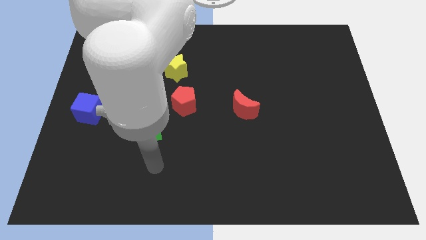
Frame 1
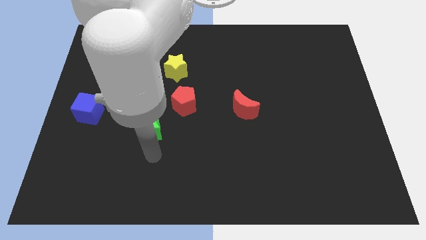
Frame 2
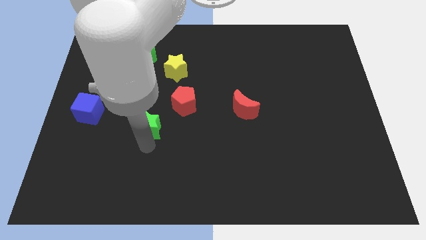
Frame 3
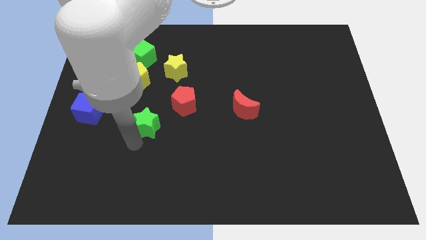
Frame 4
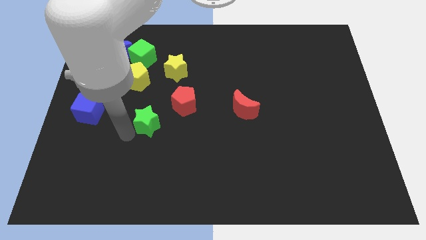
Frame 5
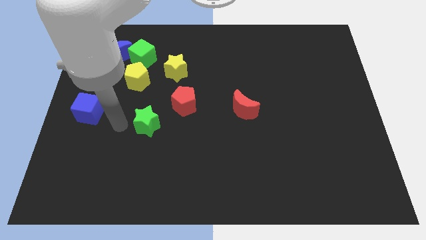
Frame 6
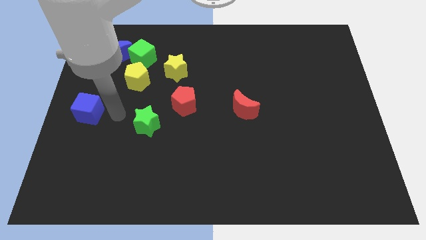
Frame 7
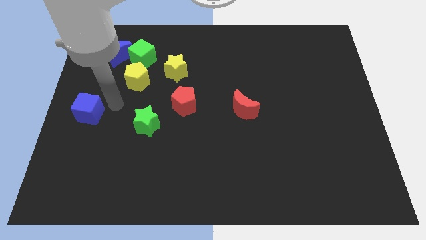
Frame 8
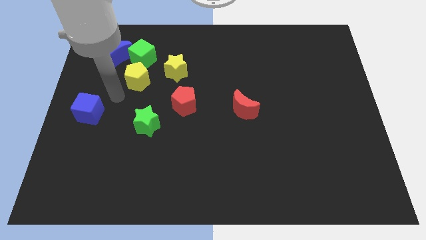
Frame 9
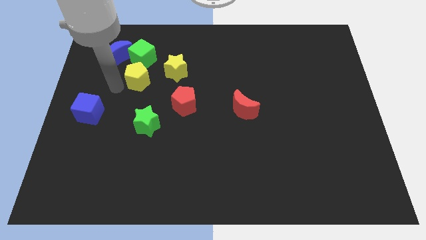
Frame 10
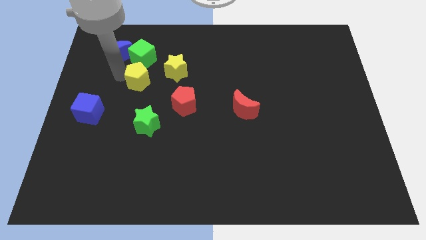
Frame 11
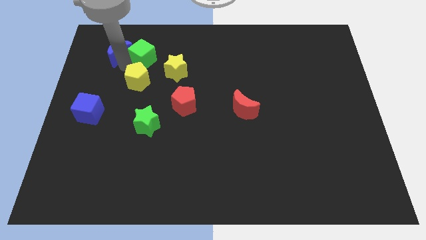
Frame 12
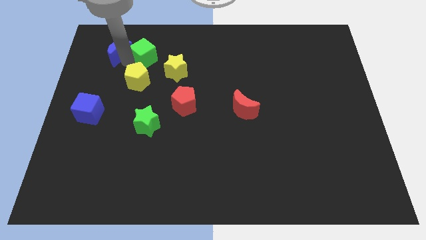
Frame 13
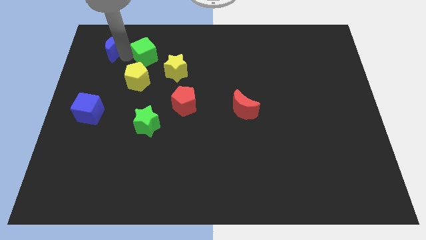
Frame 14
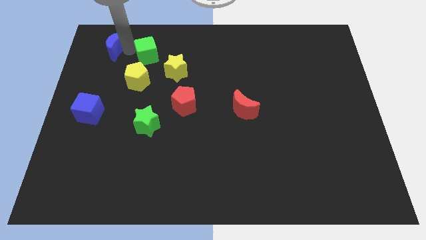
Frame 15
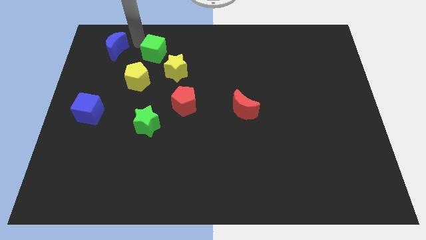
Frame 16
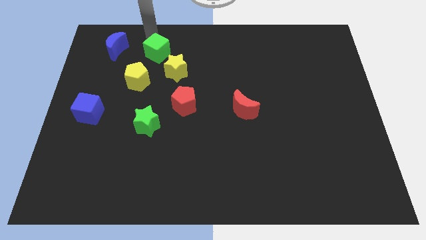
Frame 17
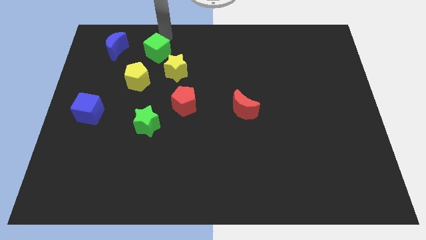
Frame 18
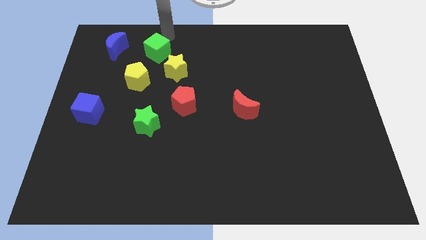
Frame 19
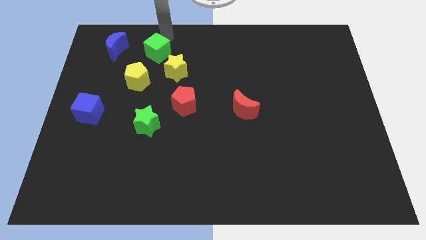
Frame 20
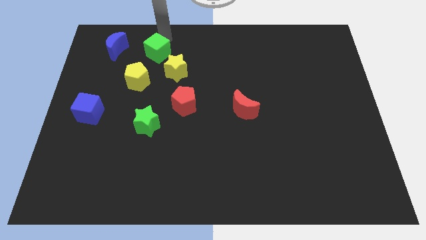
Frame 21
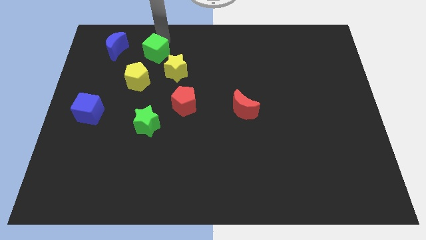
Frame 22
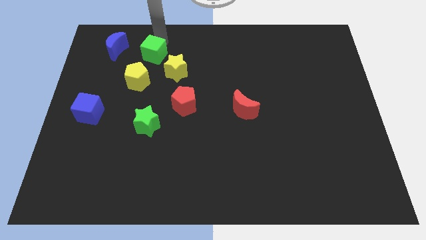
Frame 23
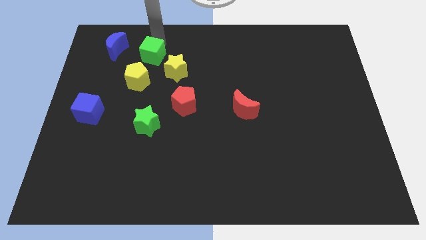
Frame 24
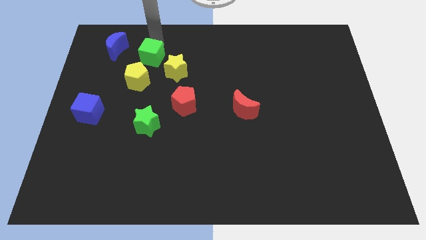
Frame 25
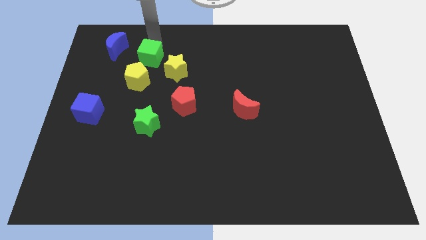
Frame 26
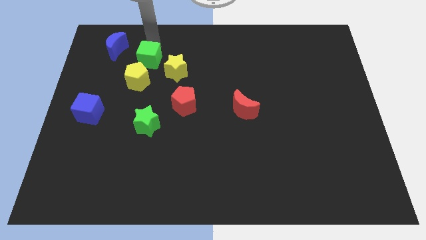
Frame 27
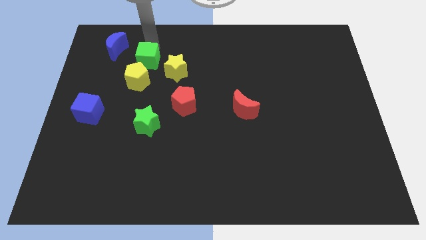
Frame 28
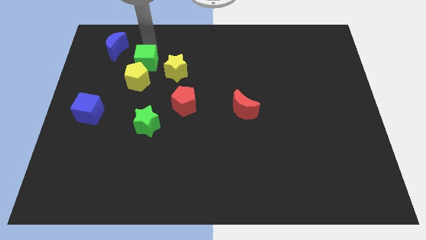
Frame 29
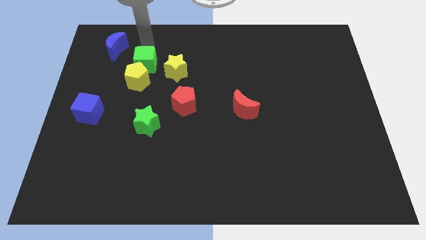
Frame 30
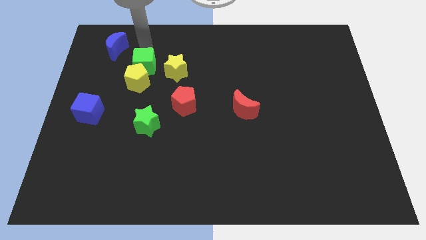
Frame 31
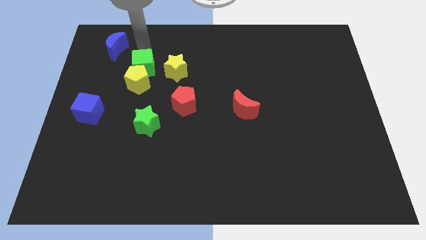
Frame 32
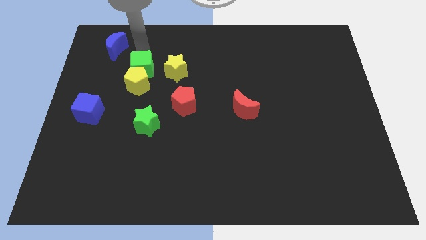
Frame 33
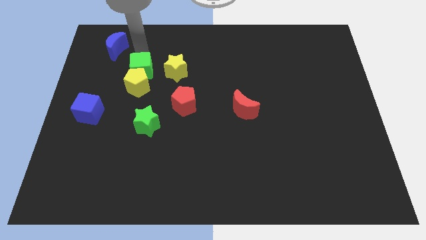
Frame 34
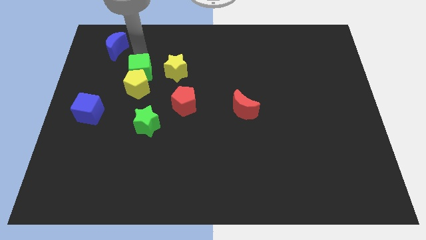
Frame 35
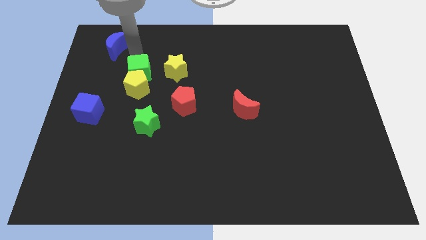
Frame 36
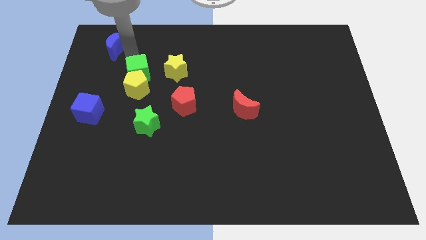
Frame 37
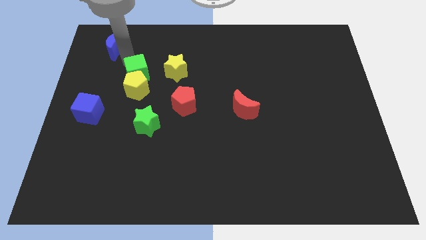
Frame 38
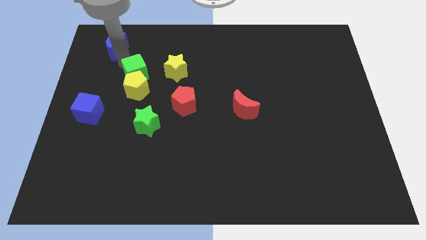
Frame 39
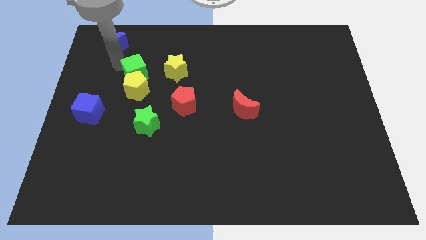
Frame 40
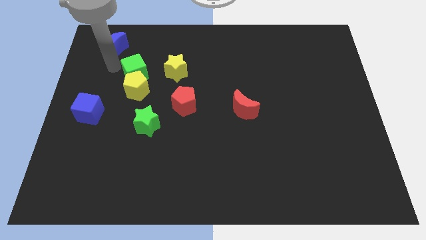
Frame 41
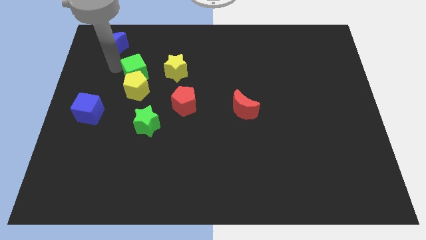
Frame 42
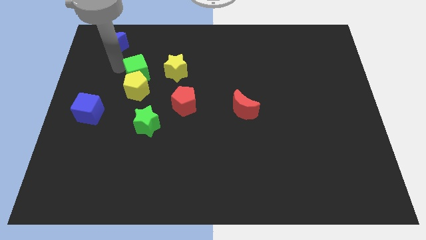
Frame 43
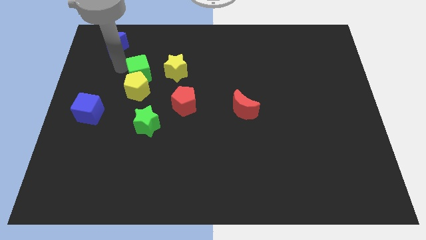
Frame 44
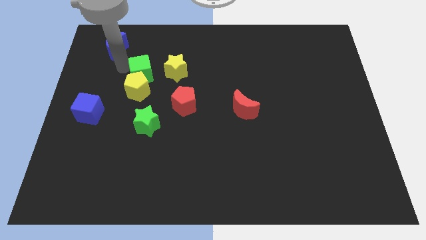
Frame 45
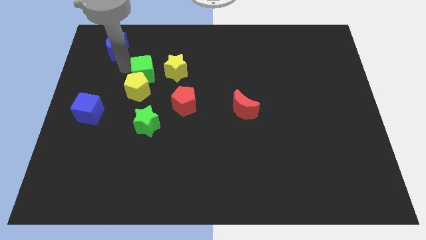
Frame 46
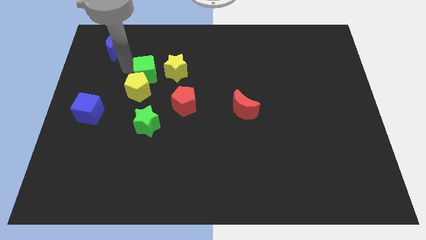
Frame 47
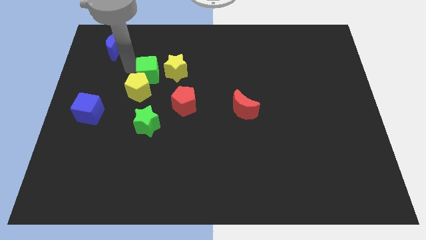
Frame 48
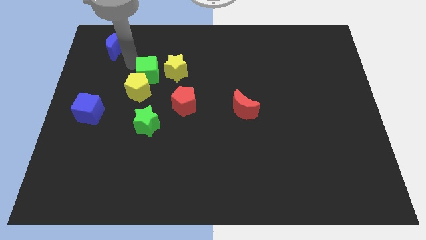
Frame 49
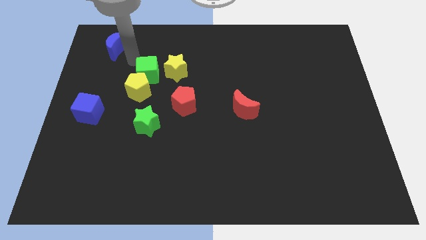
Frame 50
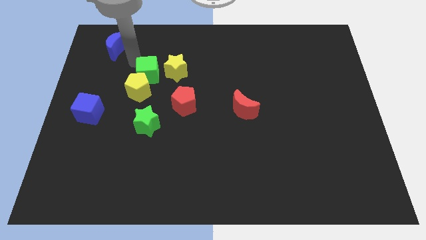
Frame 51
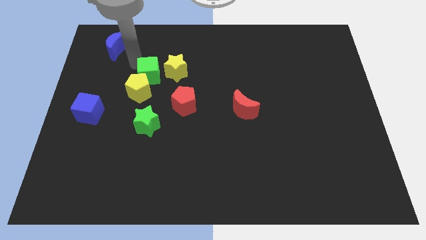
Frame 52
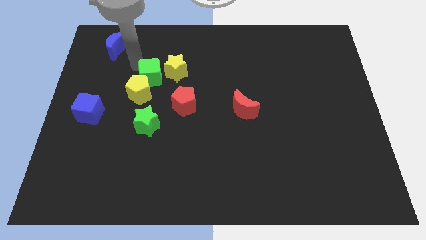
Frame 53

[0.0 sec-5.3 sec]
move the green cube diagonally up and to the left of the red pentagon

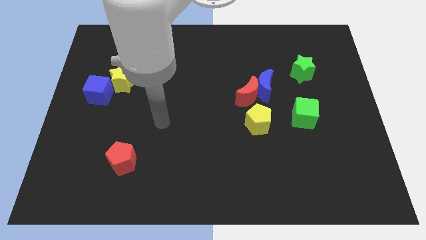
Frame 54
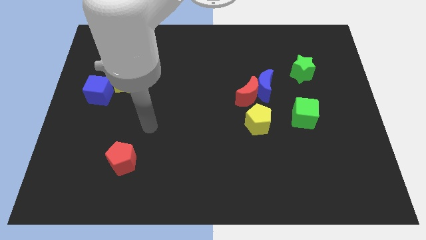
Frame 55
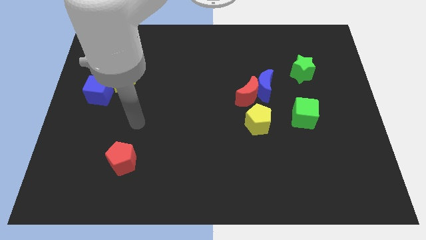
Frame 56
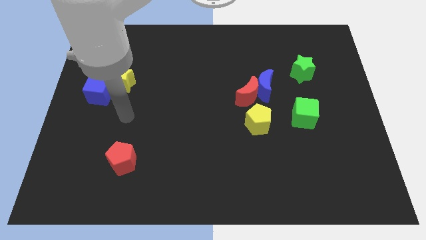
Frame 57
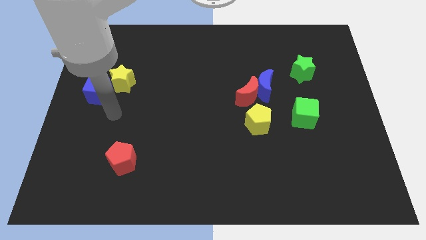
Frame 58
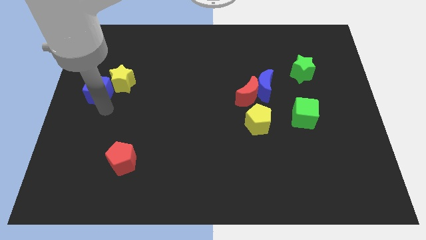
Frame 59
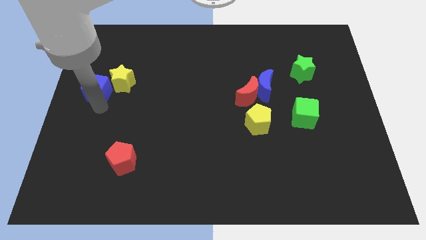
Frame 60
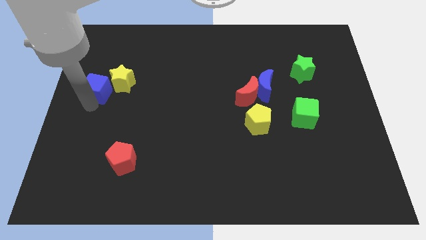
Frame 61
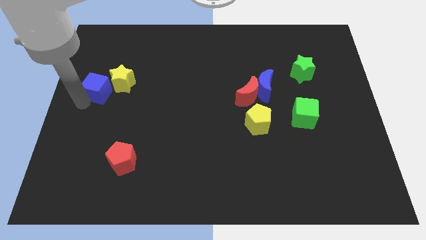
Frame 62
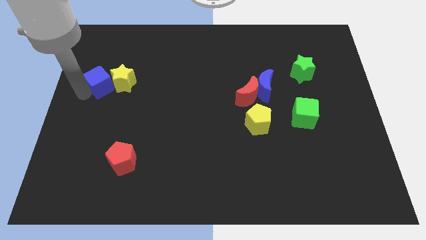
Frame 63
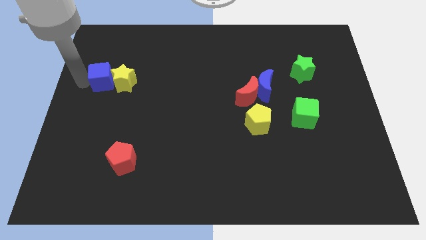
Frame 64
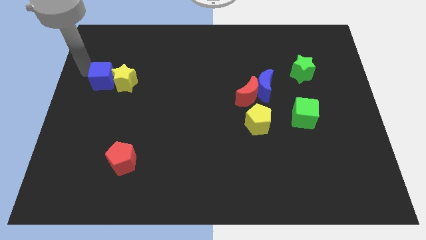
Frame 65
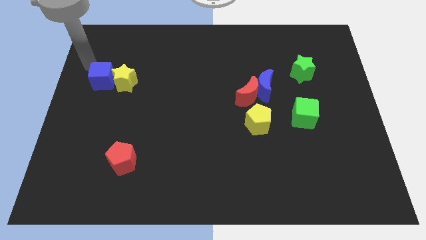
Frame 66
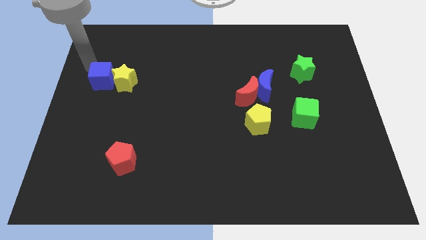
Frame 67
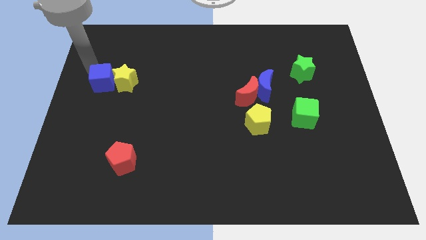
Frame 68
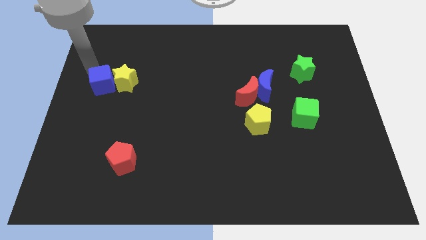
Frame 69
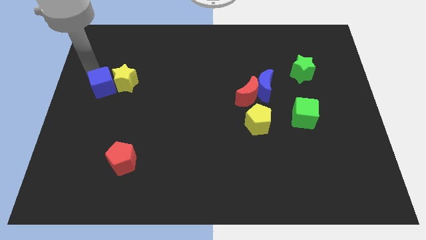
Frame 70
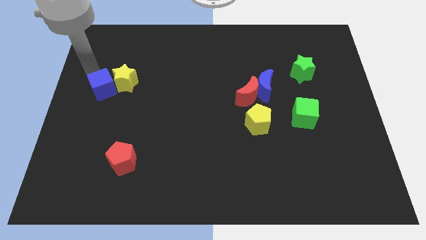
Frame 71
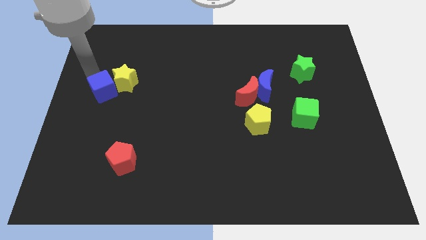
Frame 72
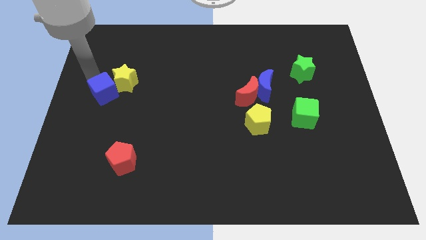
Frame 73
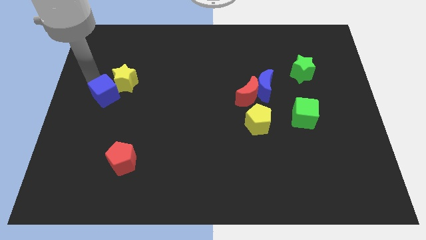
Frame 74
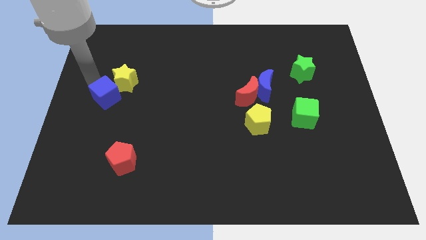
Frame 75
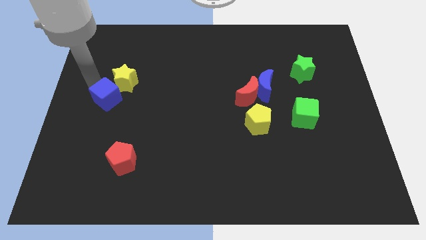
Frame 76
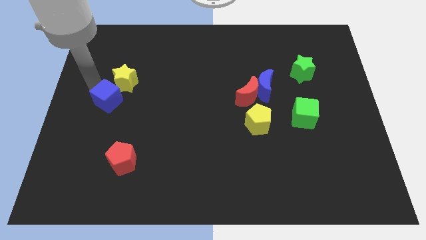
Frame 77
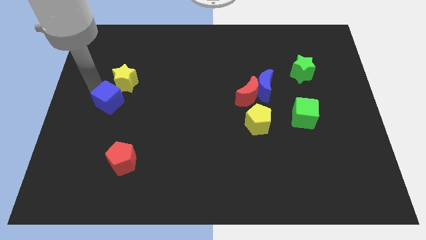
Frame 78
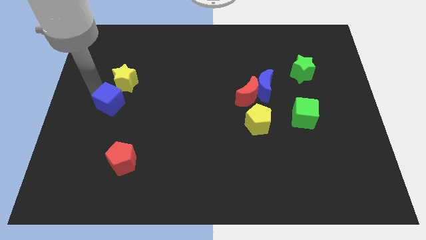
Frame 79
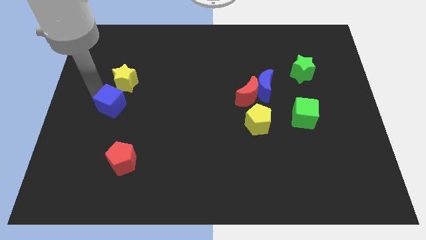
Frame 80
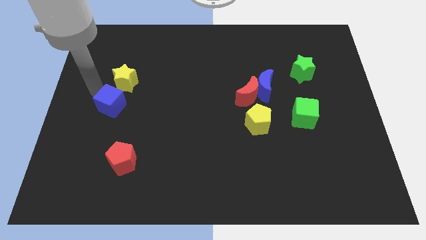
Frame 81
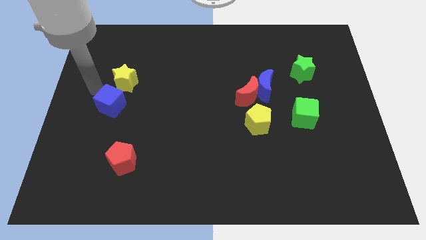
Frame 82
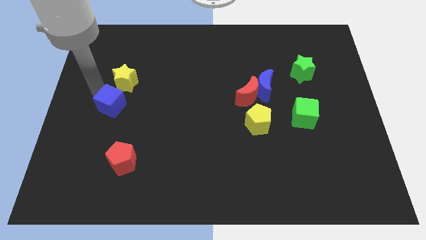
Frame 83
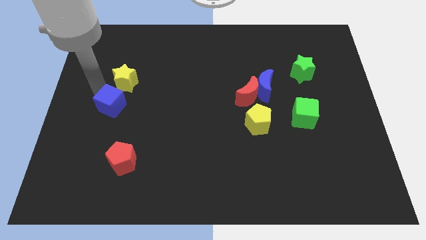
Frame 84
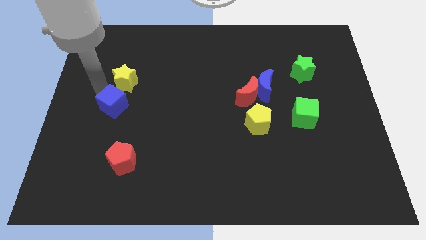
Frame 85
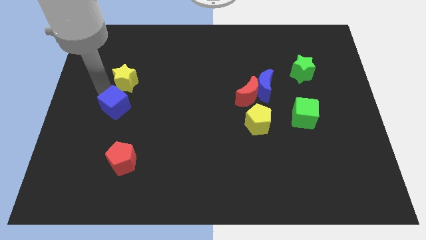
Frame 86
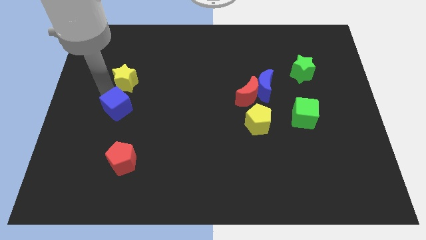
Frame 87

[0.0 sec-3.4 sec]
put the blue cube above the red pentagon
